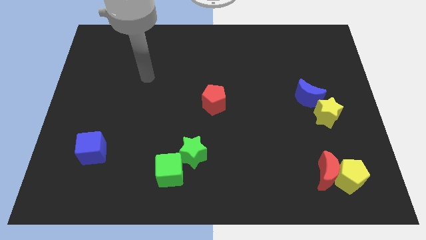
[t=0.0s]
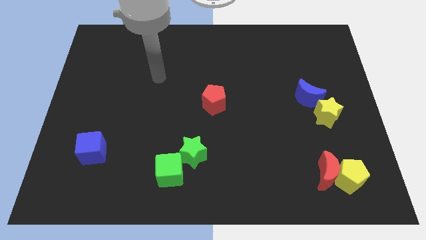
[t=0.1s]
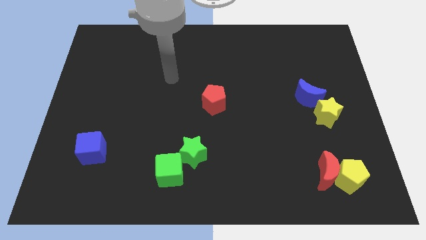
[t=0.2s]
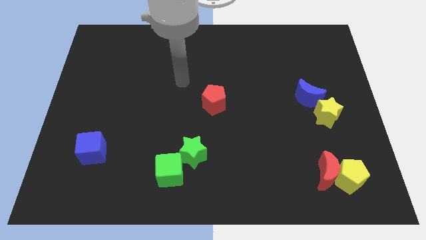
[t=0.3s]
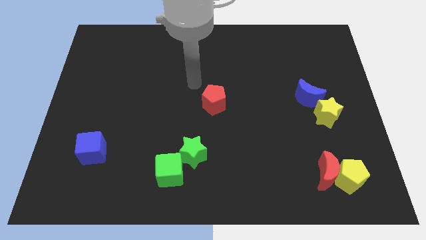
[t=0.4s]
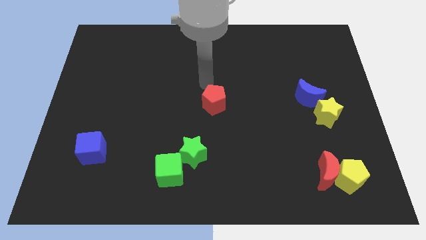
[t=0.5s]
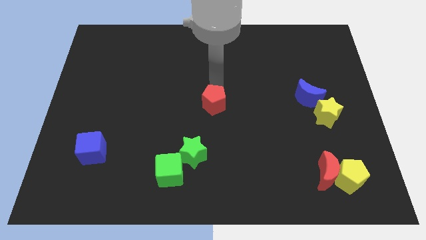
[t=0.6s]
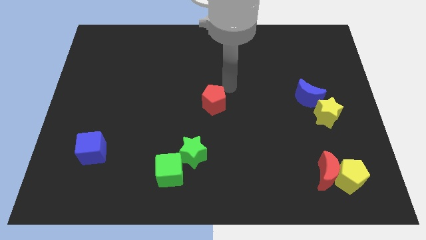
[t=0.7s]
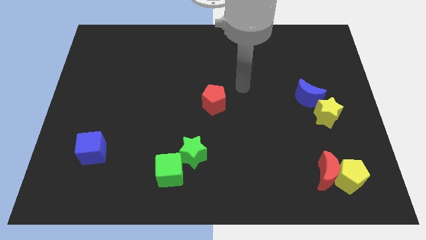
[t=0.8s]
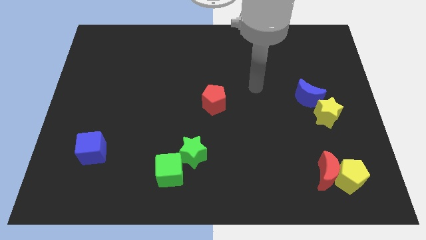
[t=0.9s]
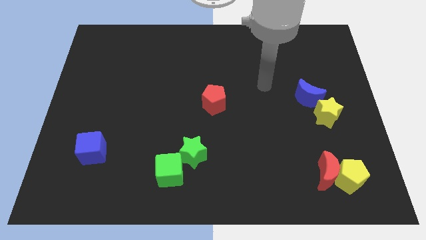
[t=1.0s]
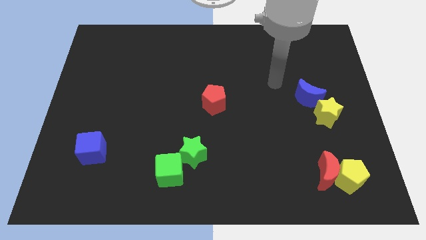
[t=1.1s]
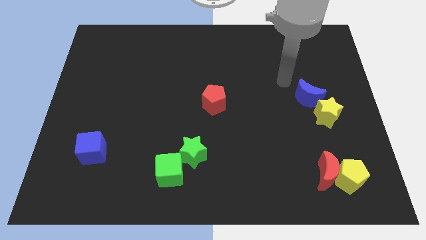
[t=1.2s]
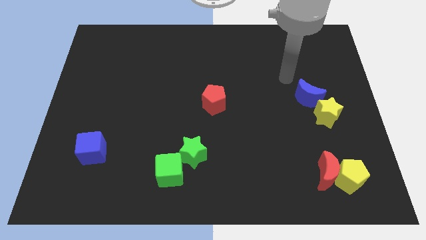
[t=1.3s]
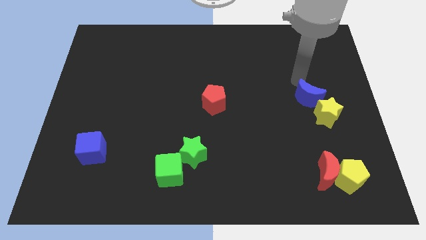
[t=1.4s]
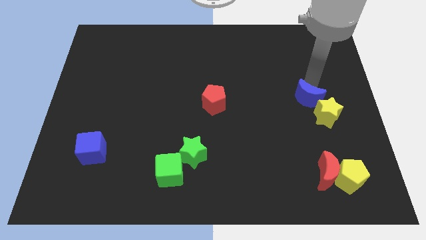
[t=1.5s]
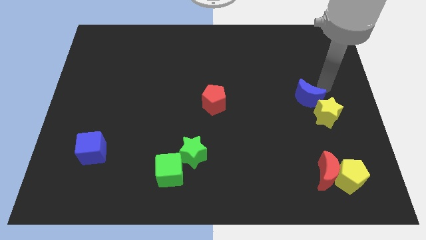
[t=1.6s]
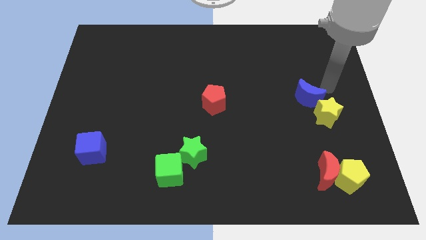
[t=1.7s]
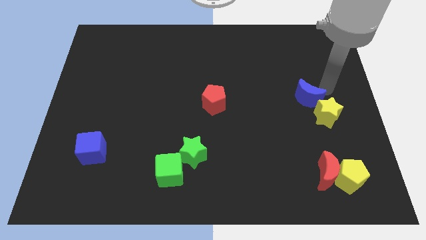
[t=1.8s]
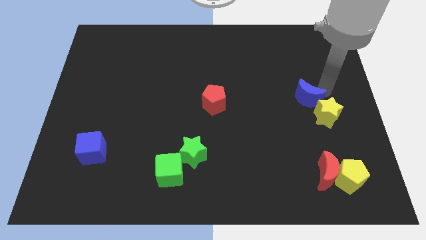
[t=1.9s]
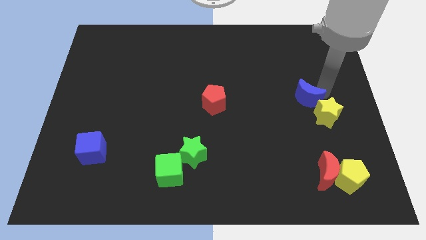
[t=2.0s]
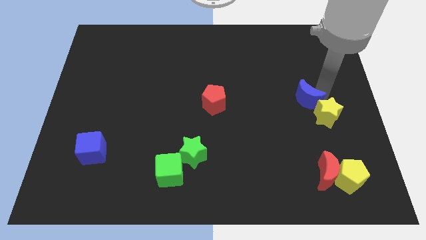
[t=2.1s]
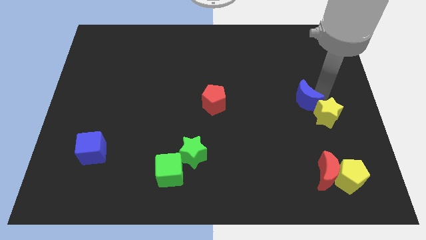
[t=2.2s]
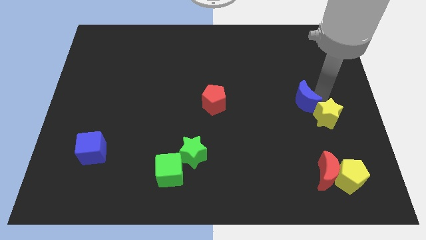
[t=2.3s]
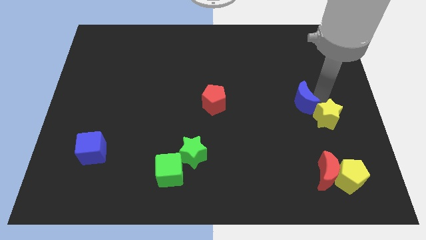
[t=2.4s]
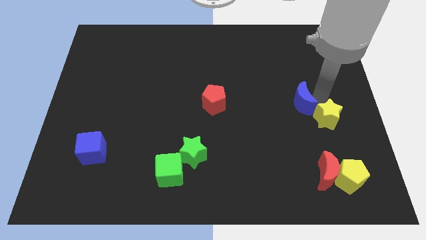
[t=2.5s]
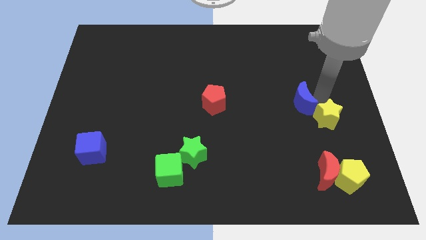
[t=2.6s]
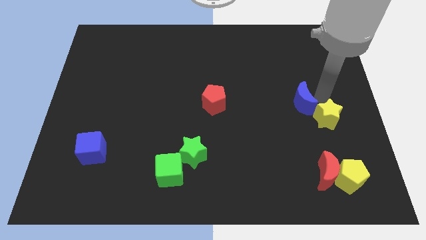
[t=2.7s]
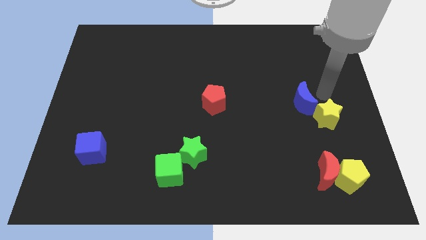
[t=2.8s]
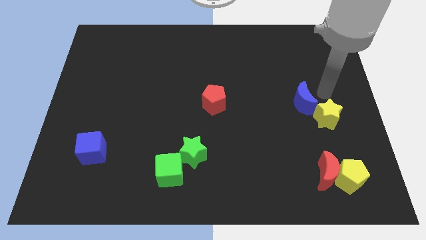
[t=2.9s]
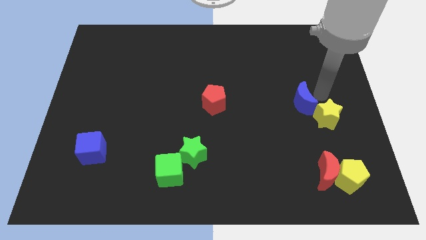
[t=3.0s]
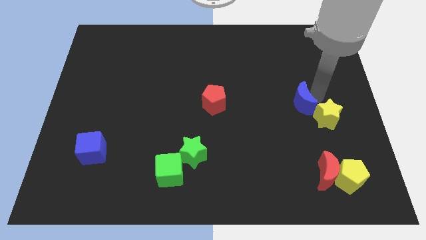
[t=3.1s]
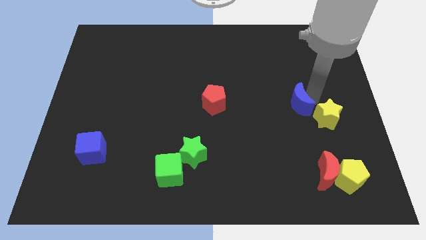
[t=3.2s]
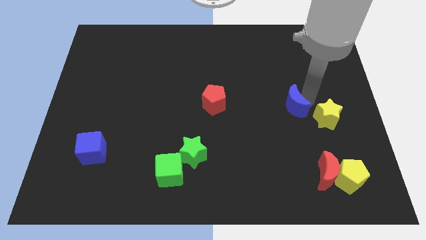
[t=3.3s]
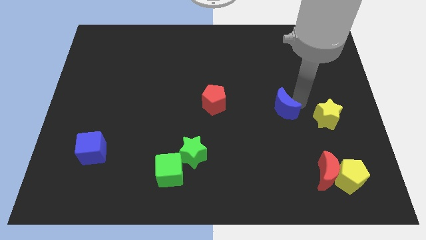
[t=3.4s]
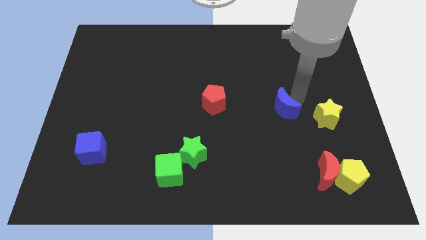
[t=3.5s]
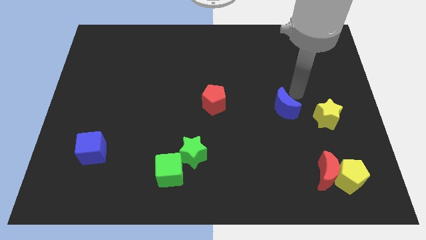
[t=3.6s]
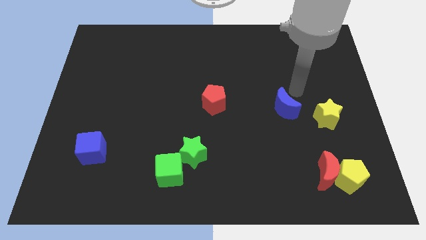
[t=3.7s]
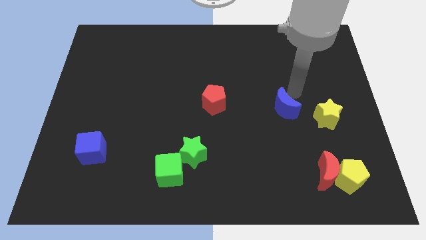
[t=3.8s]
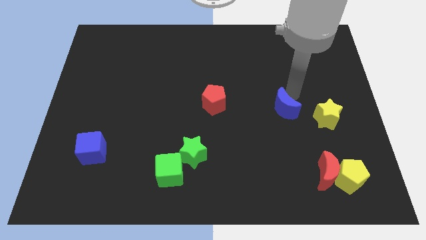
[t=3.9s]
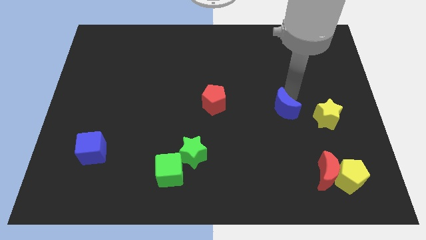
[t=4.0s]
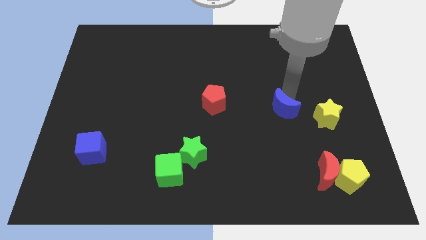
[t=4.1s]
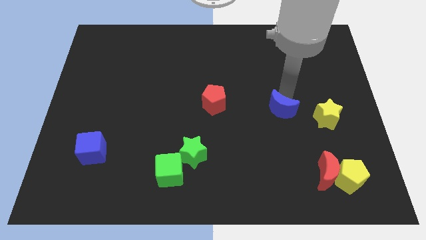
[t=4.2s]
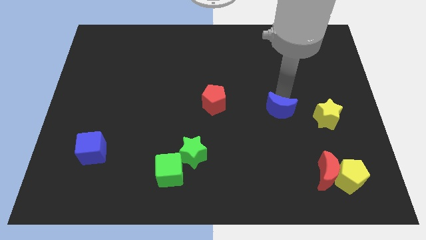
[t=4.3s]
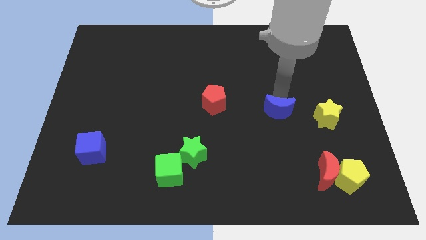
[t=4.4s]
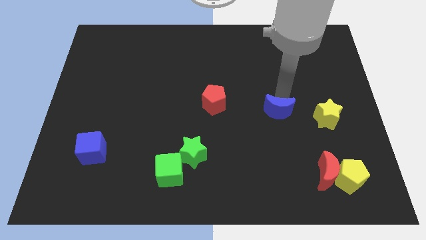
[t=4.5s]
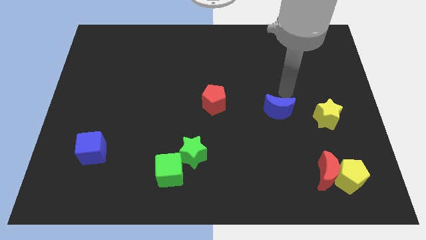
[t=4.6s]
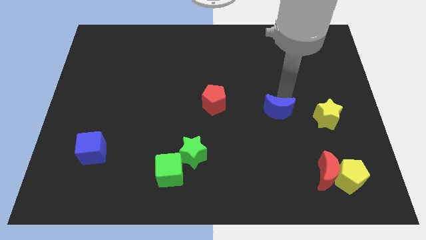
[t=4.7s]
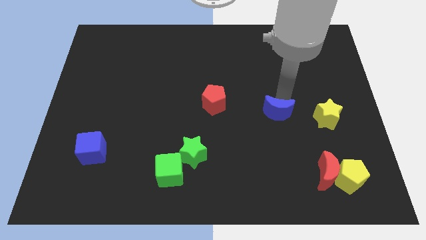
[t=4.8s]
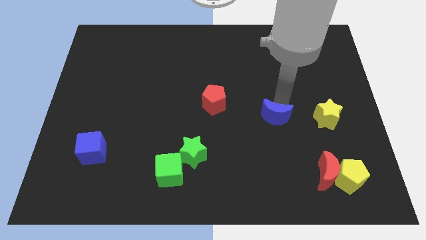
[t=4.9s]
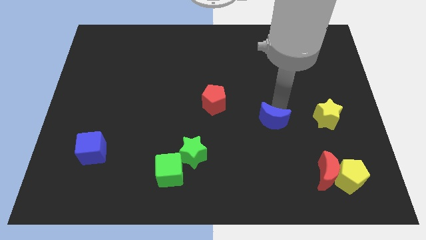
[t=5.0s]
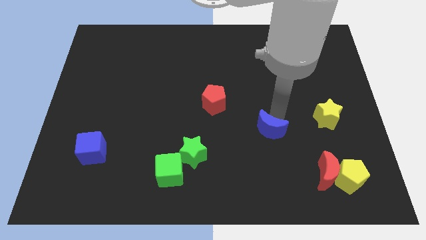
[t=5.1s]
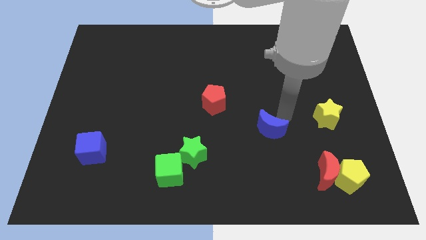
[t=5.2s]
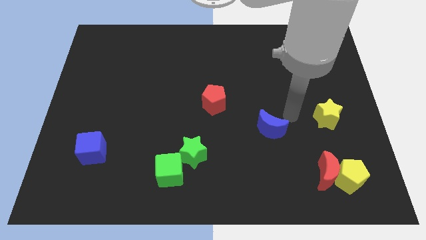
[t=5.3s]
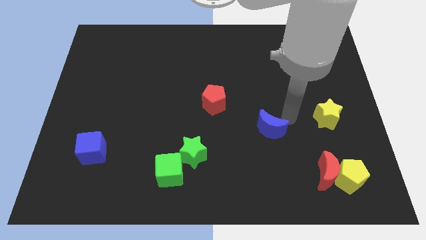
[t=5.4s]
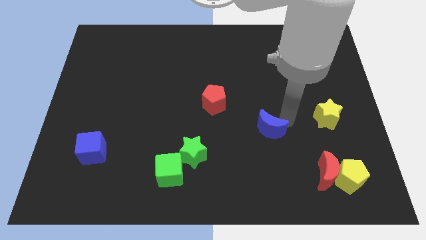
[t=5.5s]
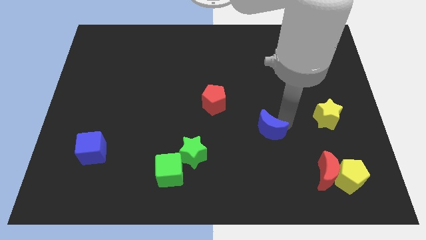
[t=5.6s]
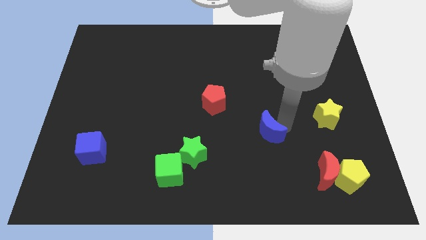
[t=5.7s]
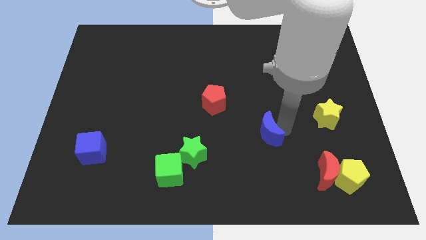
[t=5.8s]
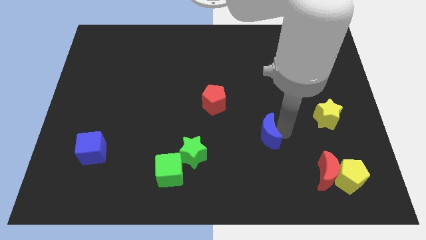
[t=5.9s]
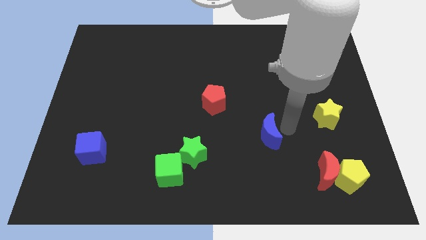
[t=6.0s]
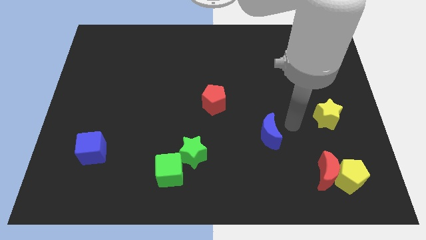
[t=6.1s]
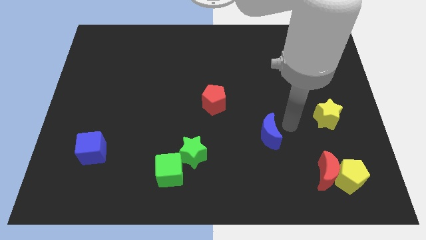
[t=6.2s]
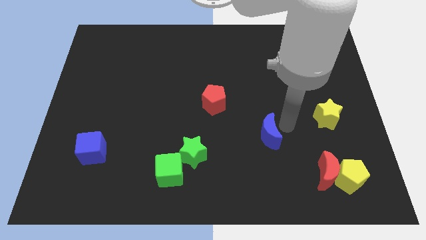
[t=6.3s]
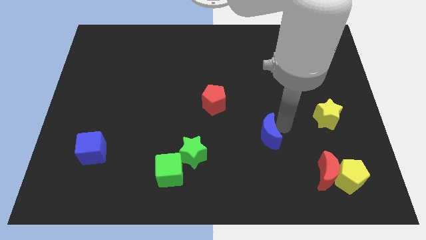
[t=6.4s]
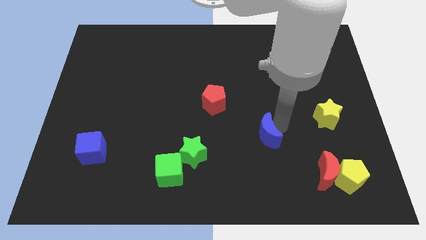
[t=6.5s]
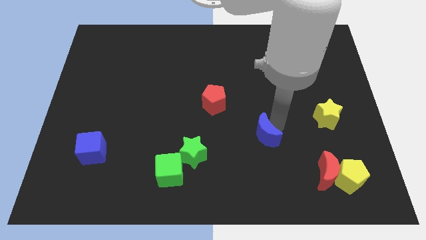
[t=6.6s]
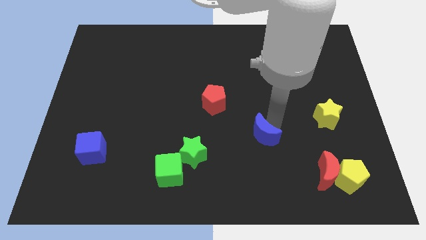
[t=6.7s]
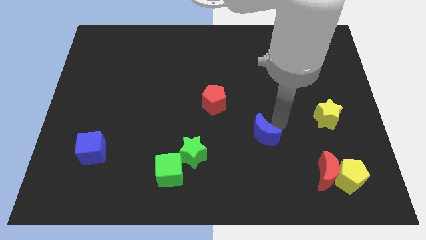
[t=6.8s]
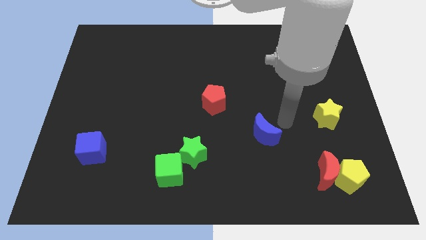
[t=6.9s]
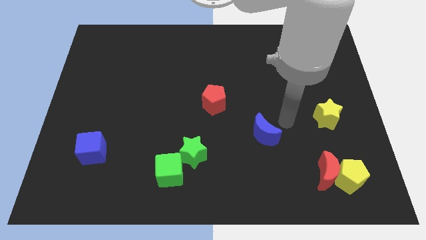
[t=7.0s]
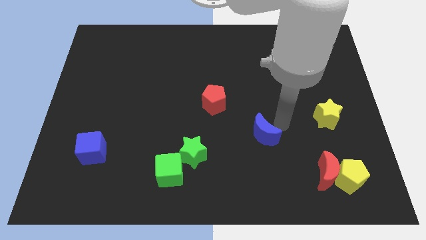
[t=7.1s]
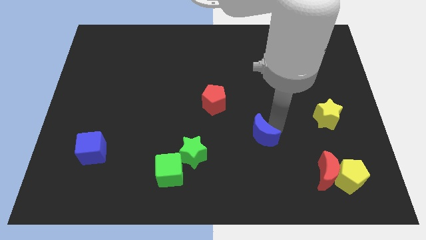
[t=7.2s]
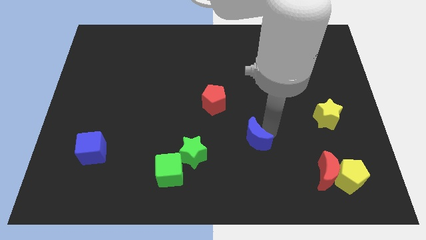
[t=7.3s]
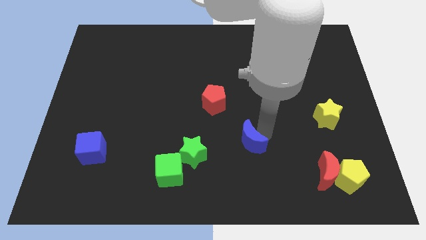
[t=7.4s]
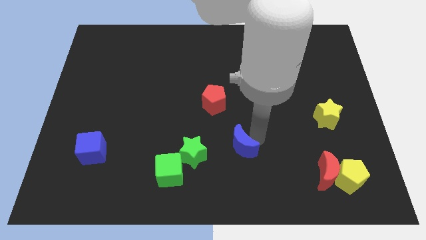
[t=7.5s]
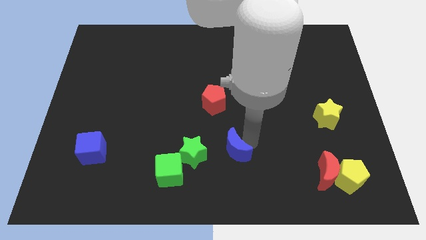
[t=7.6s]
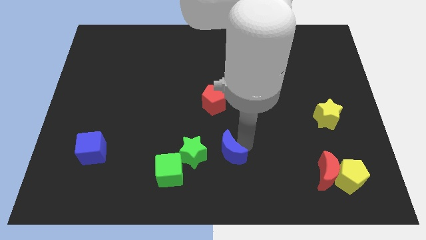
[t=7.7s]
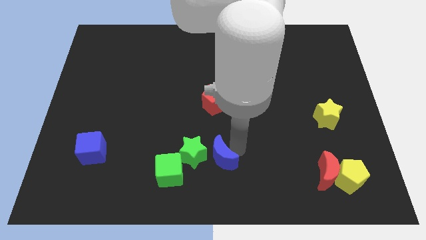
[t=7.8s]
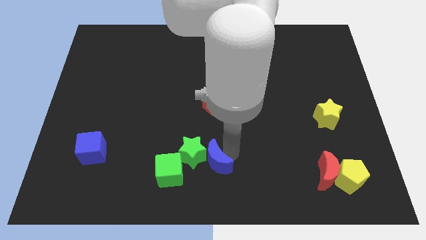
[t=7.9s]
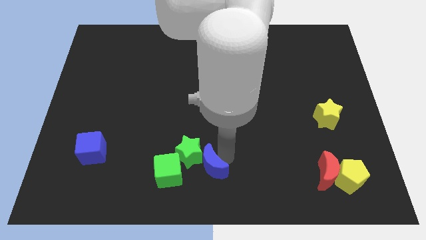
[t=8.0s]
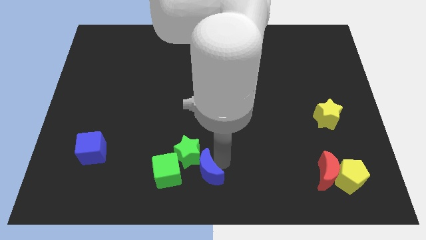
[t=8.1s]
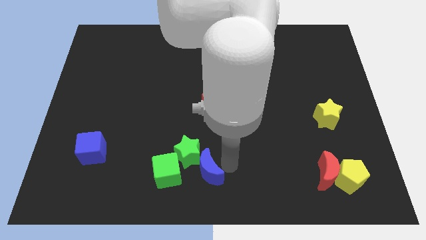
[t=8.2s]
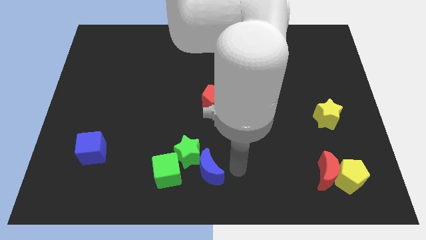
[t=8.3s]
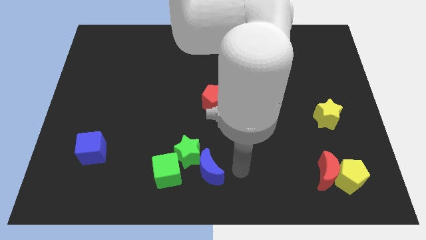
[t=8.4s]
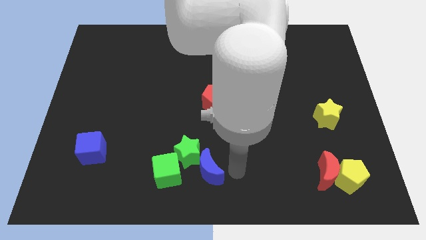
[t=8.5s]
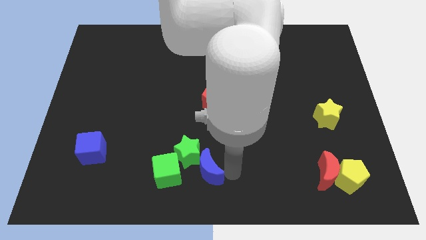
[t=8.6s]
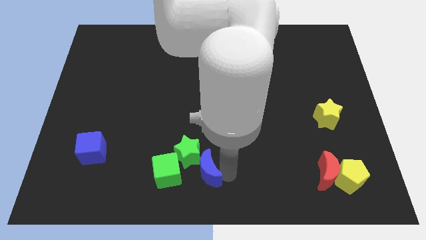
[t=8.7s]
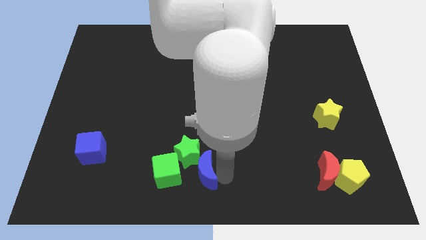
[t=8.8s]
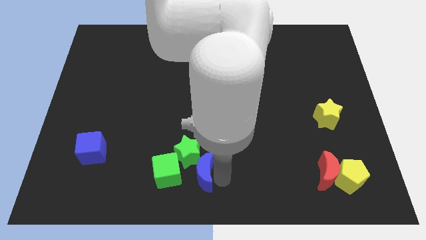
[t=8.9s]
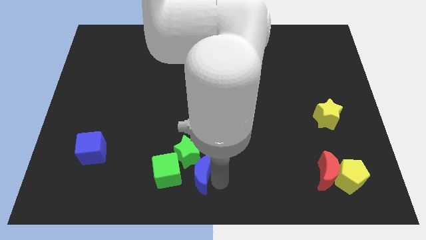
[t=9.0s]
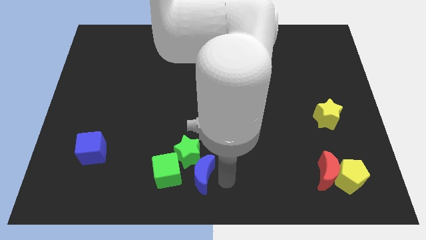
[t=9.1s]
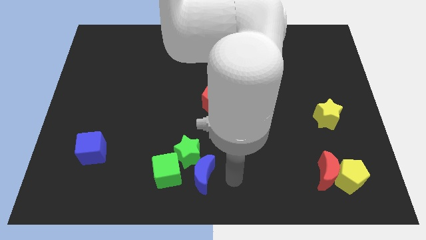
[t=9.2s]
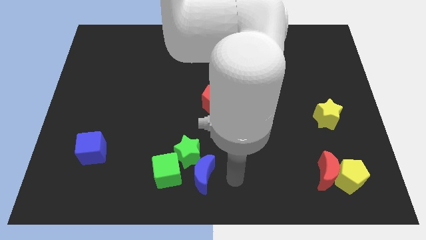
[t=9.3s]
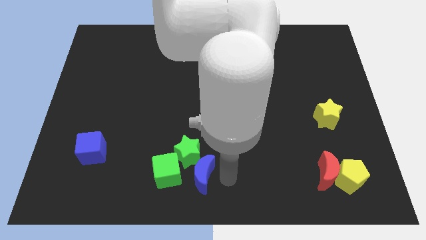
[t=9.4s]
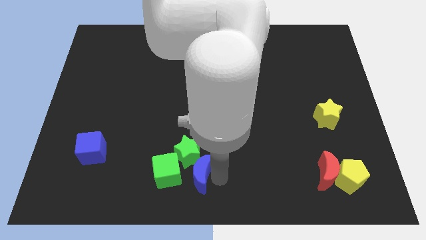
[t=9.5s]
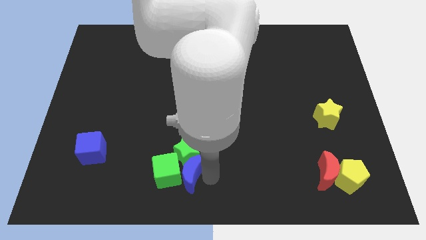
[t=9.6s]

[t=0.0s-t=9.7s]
push the blue moon towards the green cube
